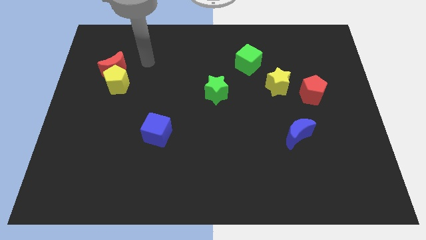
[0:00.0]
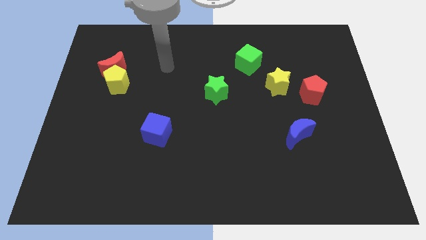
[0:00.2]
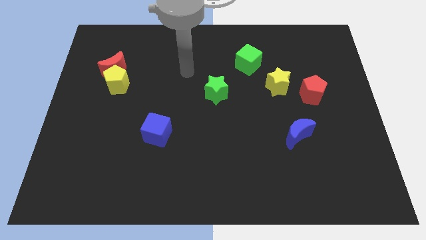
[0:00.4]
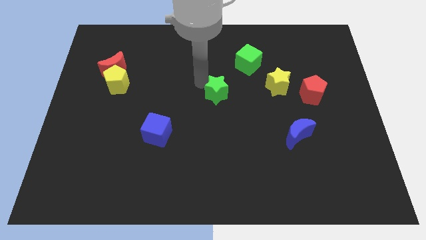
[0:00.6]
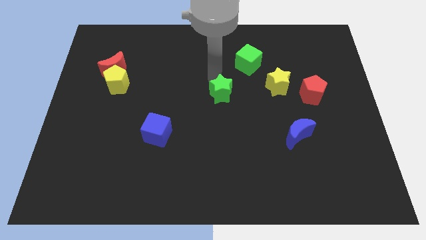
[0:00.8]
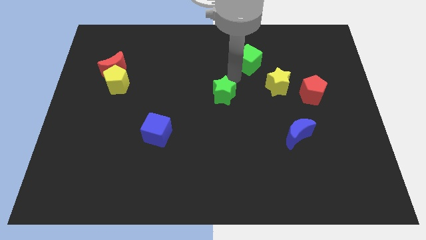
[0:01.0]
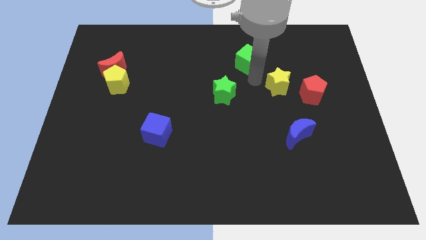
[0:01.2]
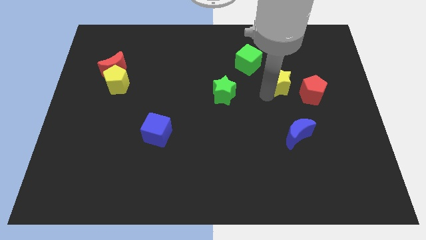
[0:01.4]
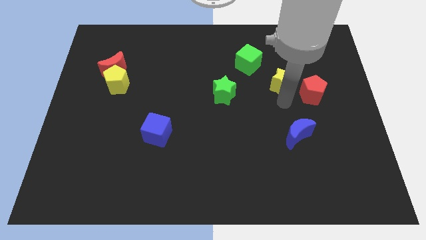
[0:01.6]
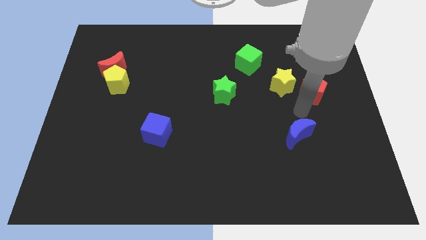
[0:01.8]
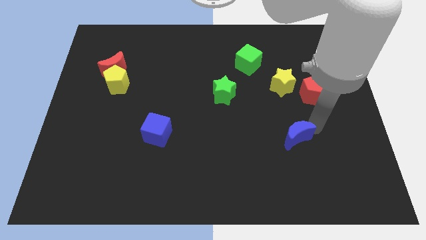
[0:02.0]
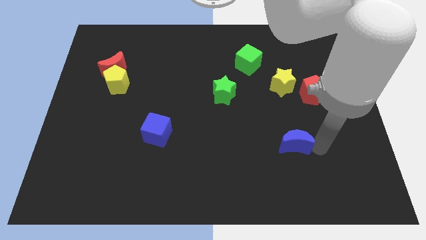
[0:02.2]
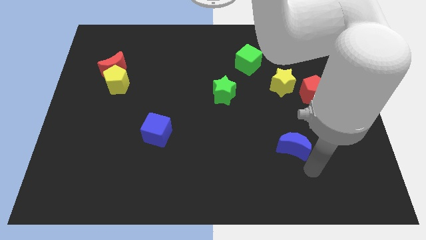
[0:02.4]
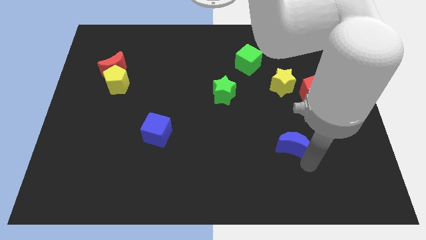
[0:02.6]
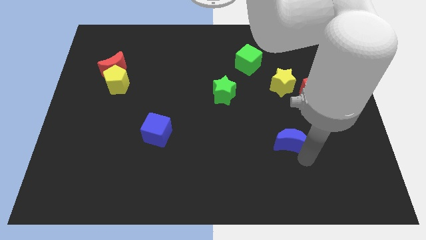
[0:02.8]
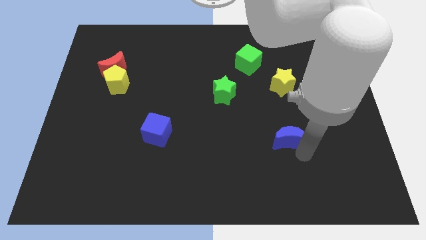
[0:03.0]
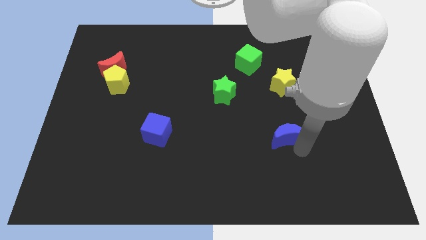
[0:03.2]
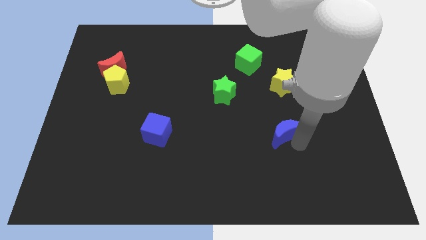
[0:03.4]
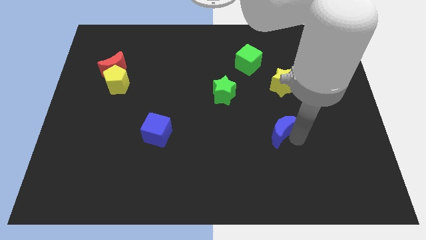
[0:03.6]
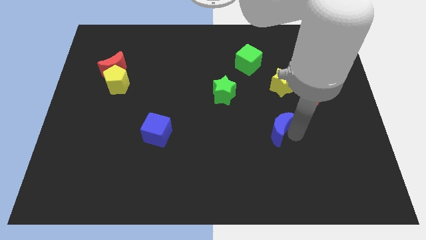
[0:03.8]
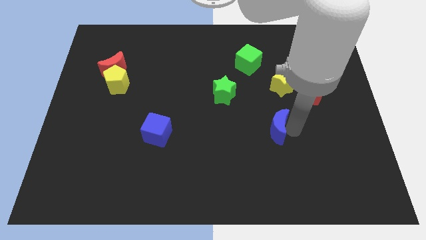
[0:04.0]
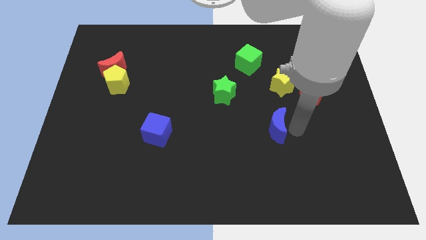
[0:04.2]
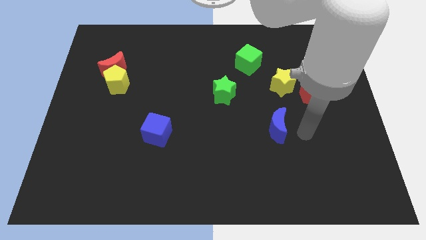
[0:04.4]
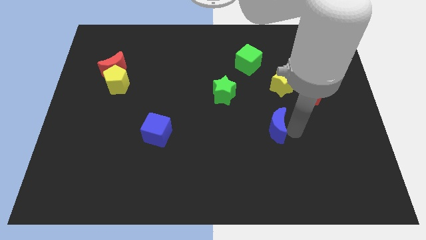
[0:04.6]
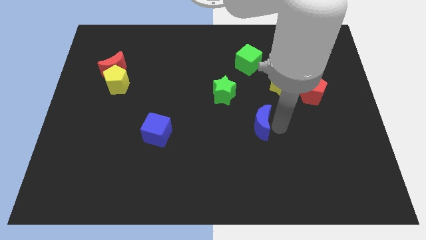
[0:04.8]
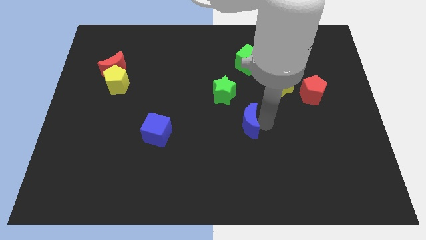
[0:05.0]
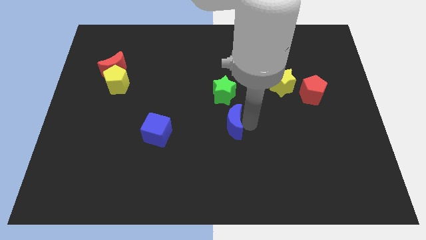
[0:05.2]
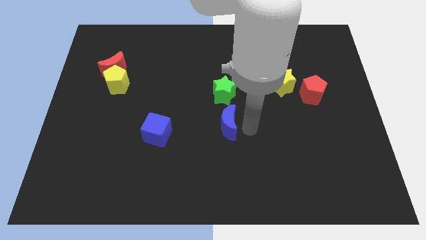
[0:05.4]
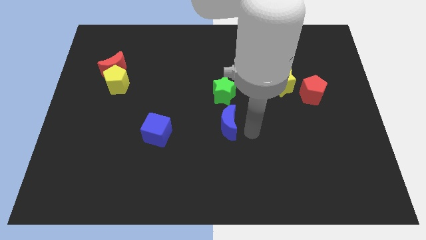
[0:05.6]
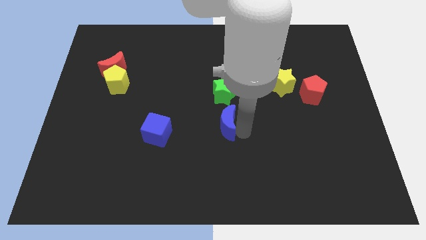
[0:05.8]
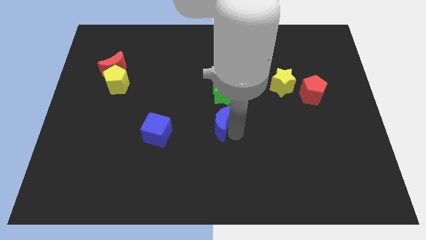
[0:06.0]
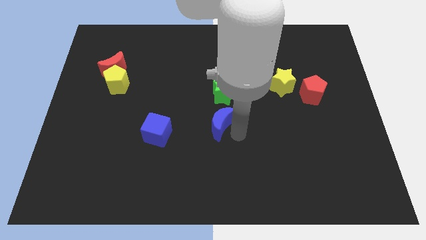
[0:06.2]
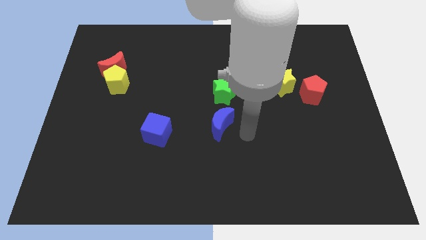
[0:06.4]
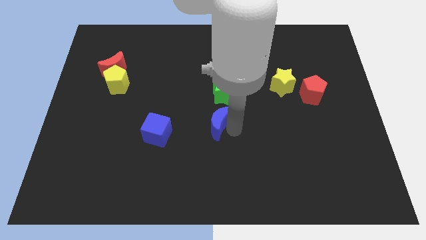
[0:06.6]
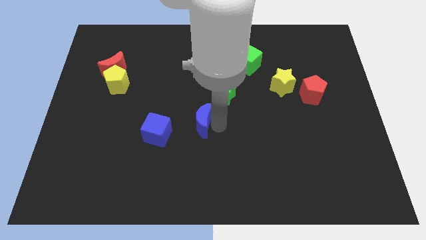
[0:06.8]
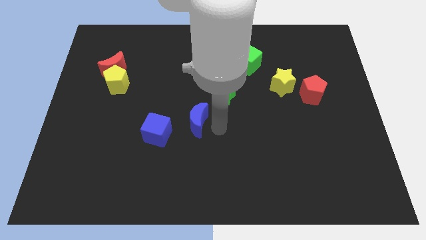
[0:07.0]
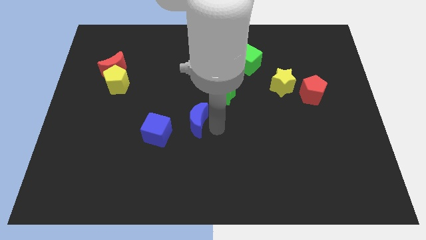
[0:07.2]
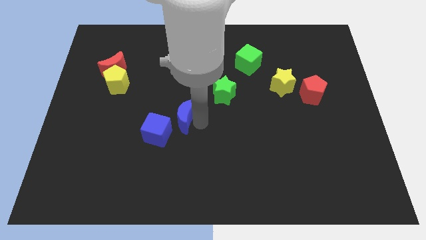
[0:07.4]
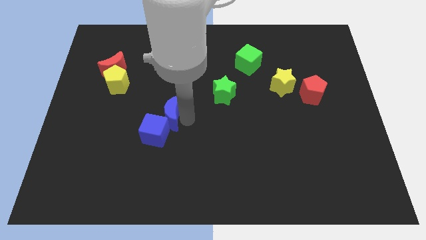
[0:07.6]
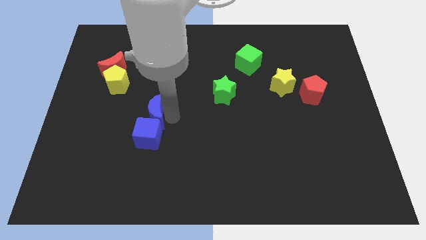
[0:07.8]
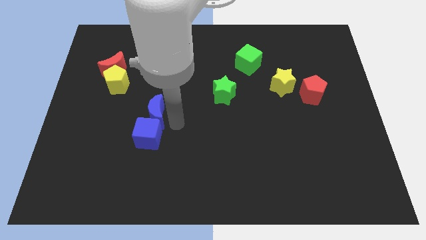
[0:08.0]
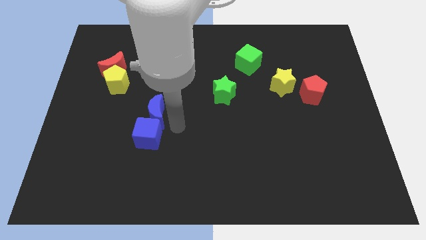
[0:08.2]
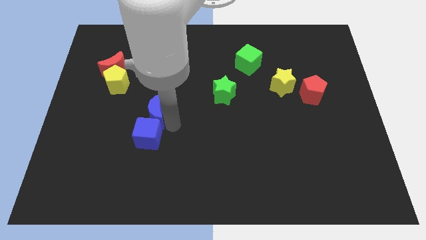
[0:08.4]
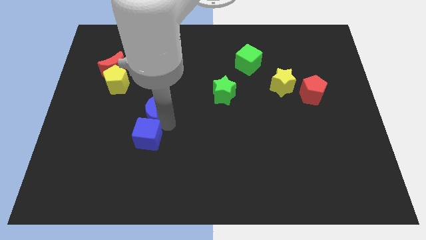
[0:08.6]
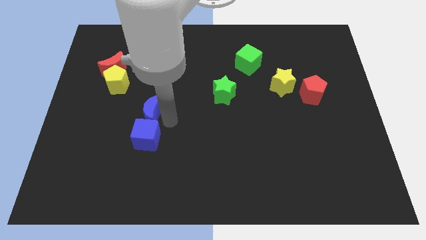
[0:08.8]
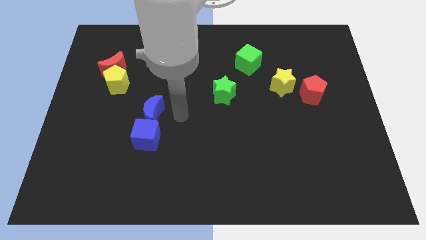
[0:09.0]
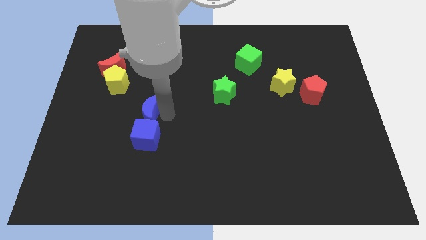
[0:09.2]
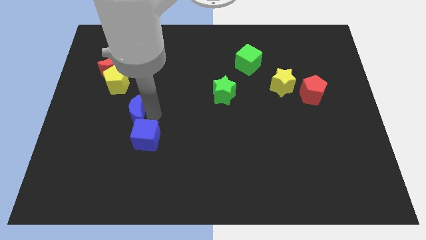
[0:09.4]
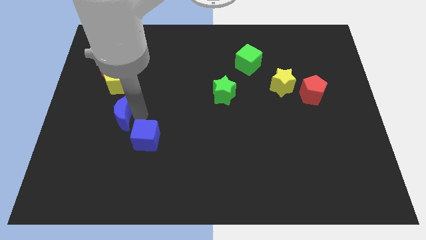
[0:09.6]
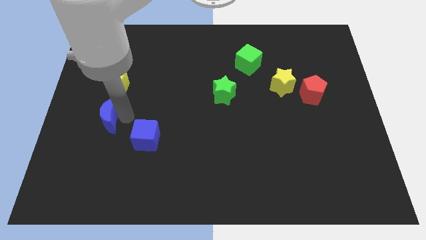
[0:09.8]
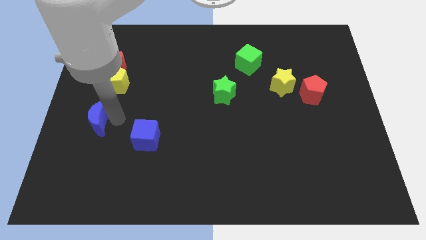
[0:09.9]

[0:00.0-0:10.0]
put the blue moon to the left side of the board

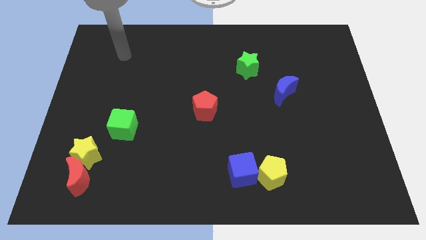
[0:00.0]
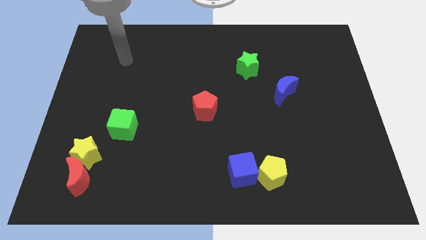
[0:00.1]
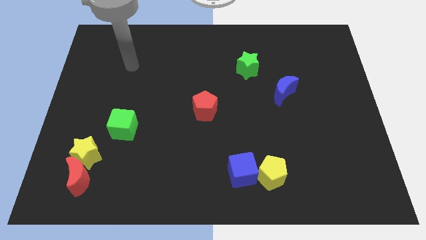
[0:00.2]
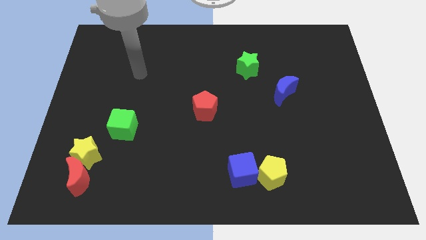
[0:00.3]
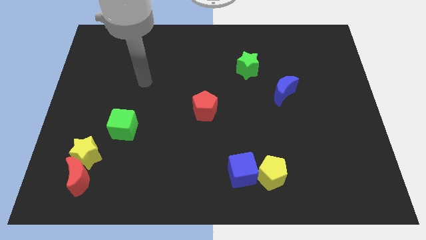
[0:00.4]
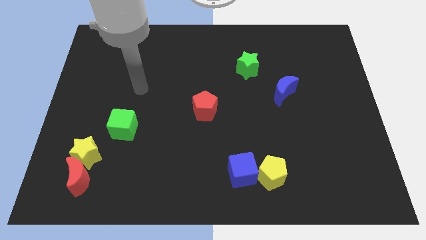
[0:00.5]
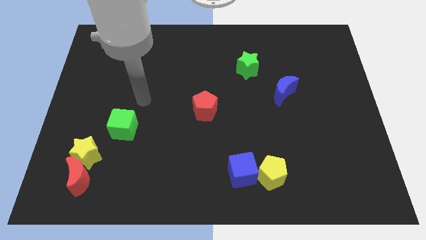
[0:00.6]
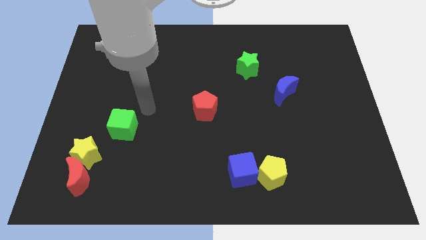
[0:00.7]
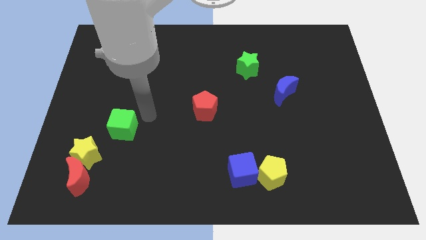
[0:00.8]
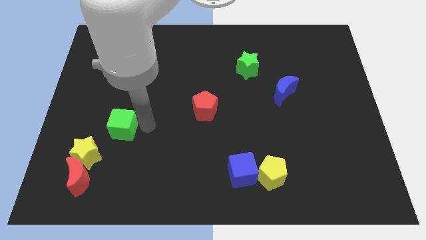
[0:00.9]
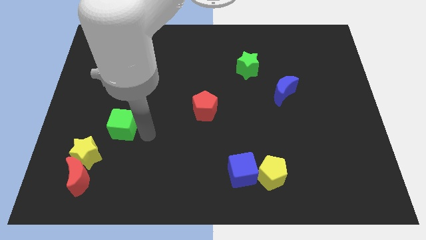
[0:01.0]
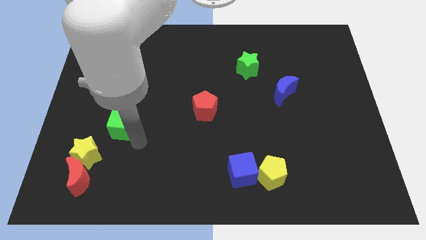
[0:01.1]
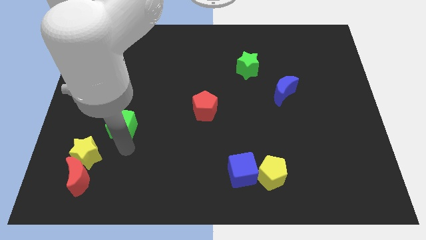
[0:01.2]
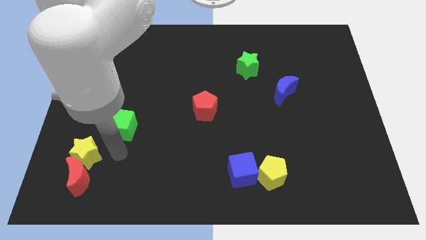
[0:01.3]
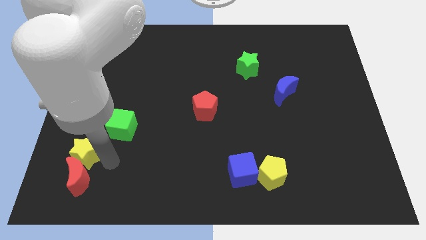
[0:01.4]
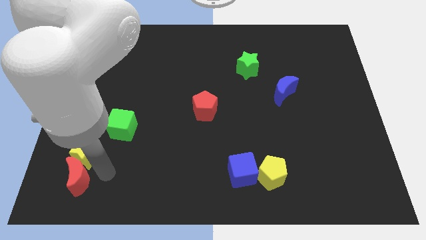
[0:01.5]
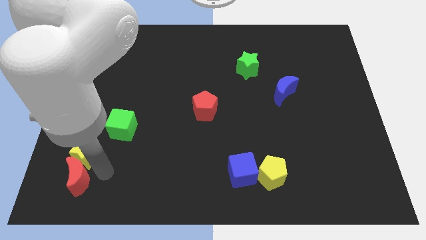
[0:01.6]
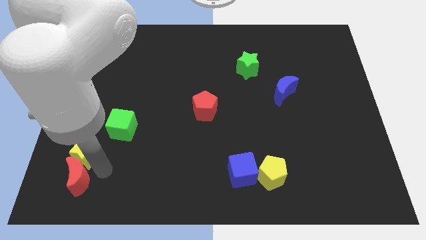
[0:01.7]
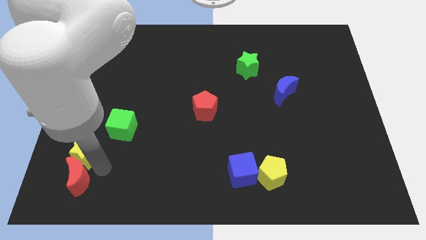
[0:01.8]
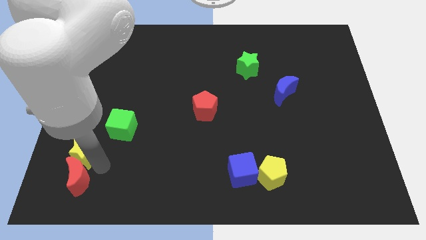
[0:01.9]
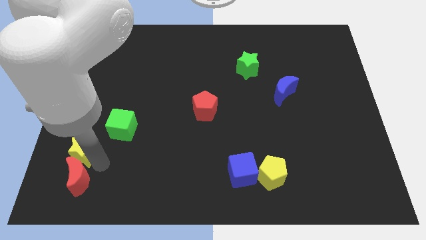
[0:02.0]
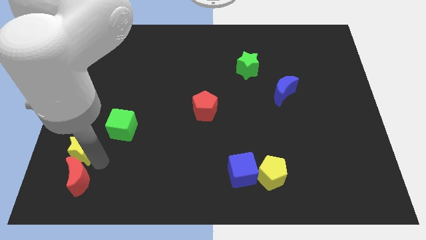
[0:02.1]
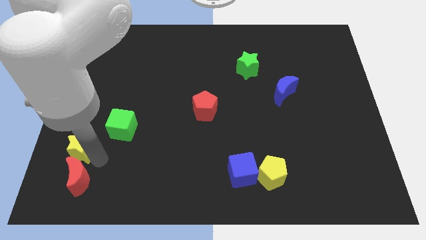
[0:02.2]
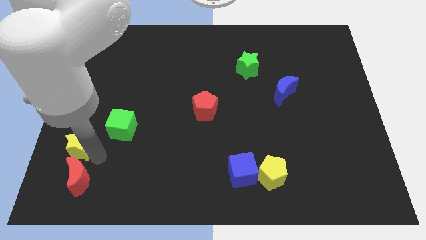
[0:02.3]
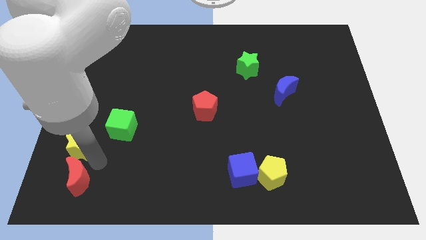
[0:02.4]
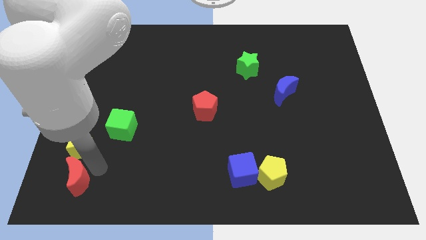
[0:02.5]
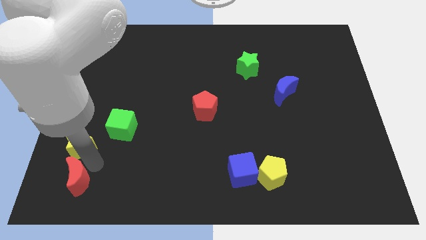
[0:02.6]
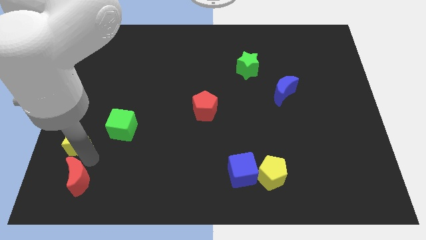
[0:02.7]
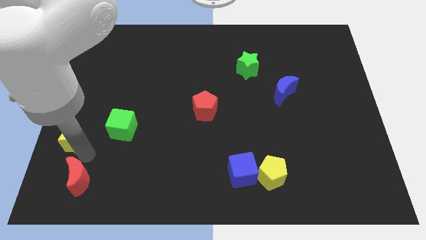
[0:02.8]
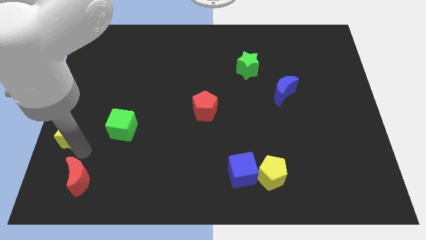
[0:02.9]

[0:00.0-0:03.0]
slide the yellow star to the center left
